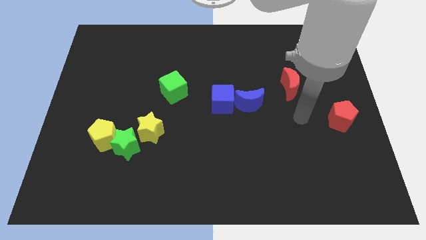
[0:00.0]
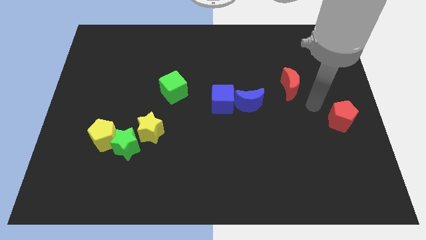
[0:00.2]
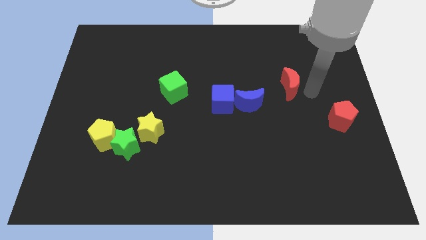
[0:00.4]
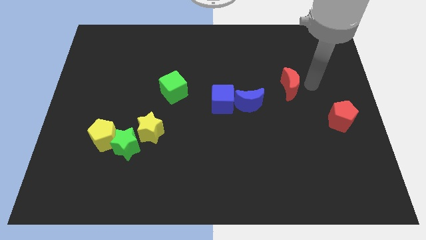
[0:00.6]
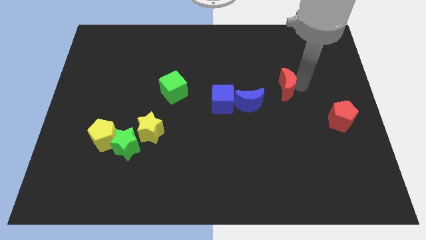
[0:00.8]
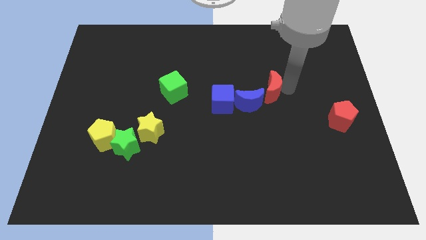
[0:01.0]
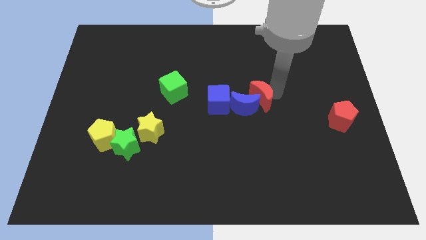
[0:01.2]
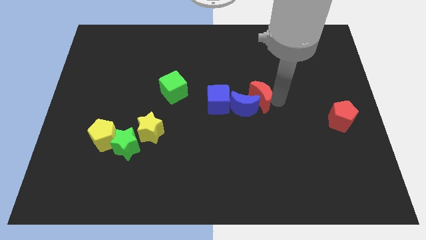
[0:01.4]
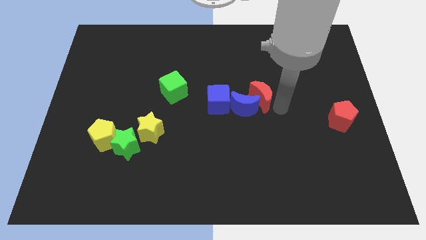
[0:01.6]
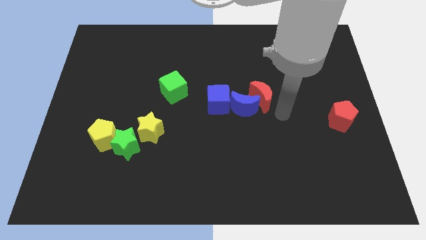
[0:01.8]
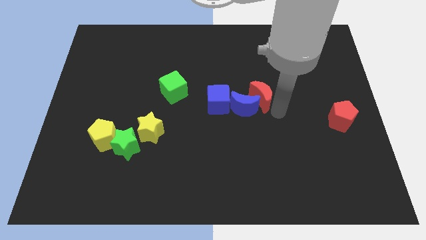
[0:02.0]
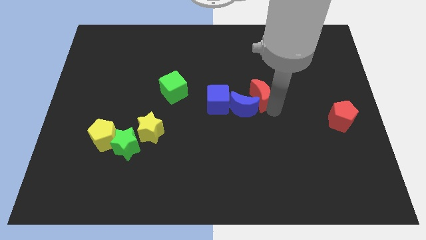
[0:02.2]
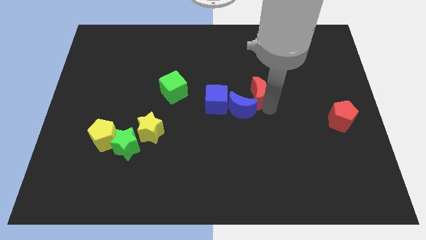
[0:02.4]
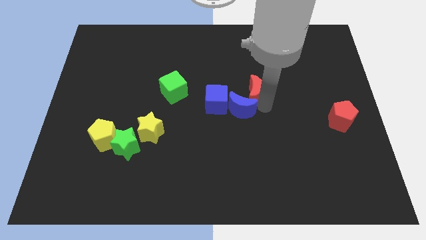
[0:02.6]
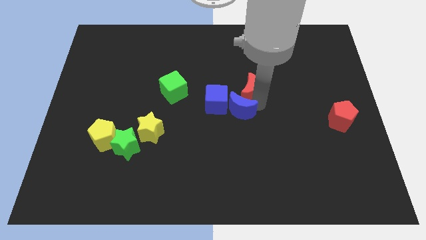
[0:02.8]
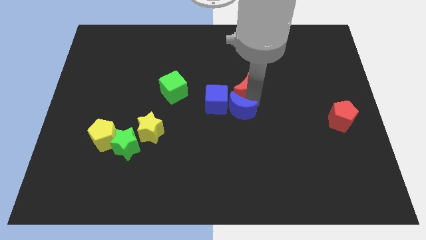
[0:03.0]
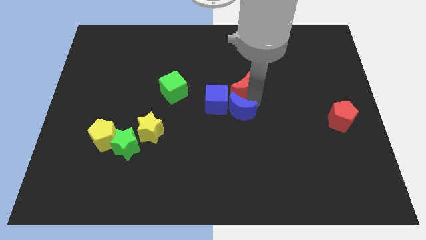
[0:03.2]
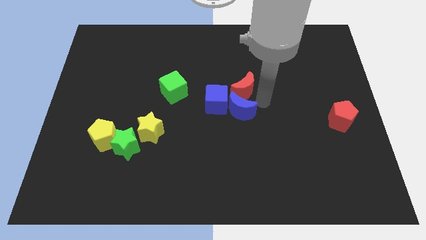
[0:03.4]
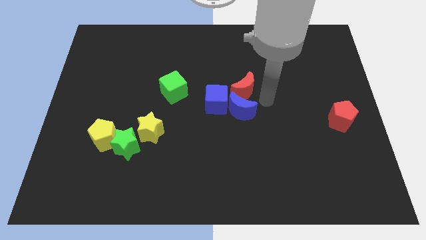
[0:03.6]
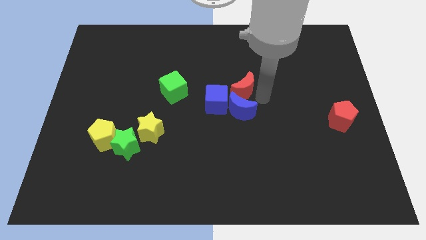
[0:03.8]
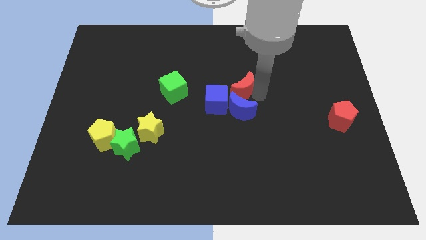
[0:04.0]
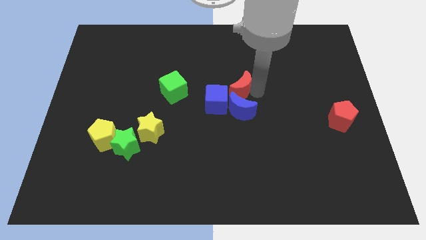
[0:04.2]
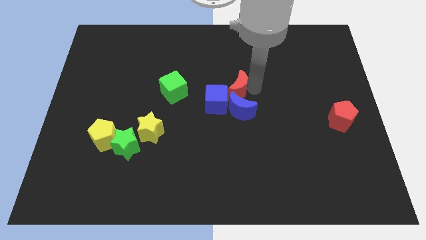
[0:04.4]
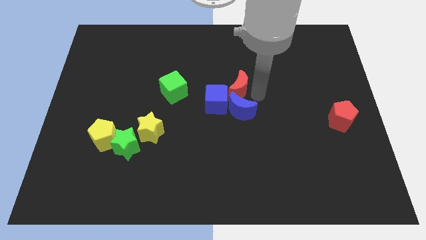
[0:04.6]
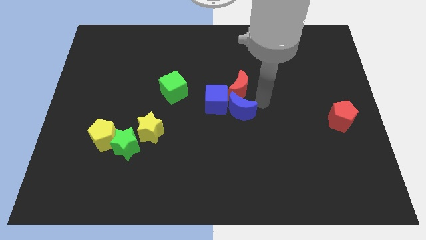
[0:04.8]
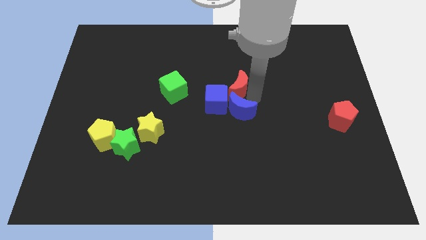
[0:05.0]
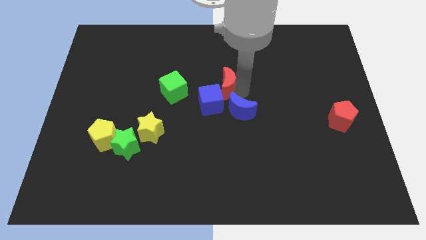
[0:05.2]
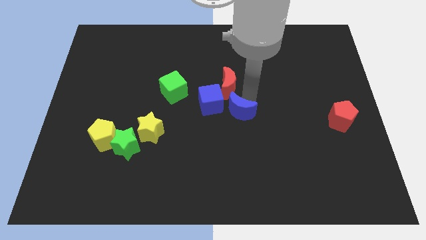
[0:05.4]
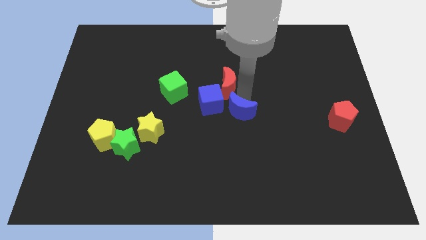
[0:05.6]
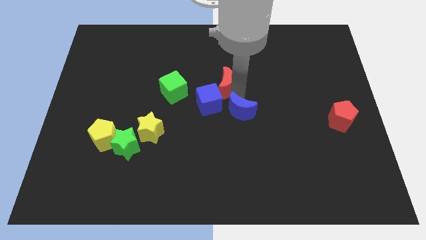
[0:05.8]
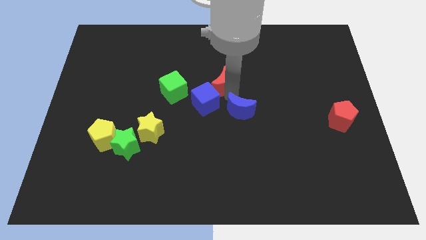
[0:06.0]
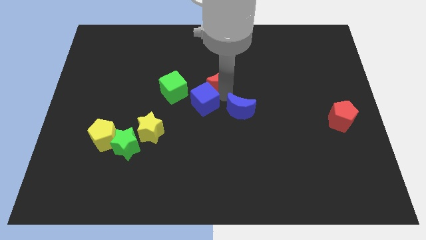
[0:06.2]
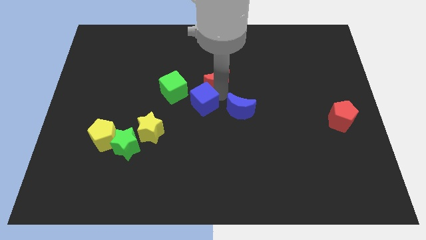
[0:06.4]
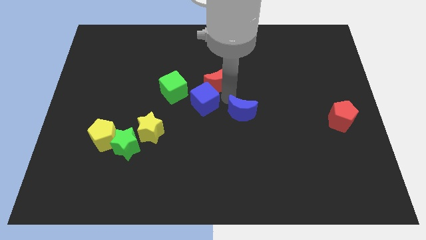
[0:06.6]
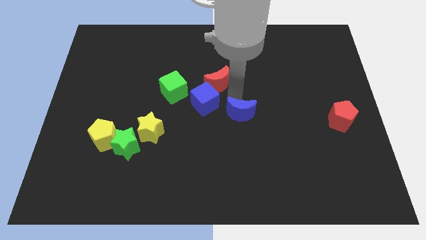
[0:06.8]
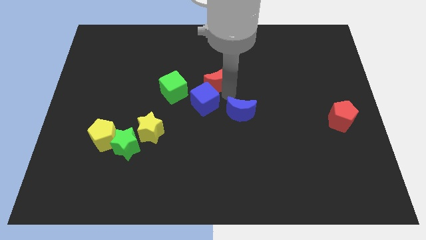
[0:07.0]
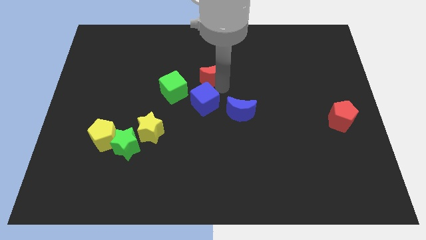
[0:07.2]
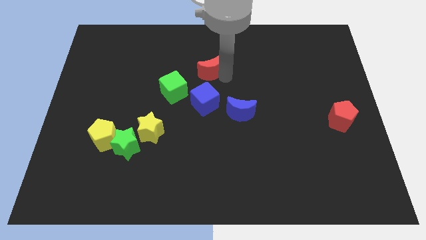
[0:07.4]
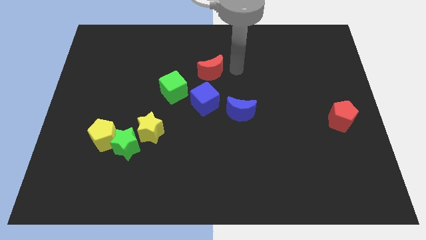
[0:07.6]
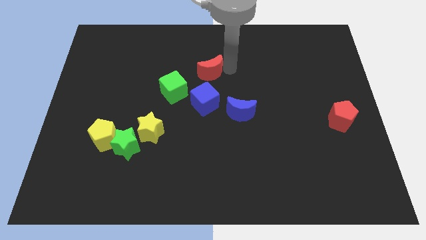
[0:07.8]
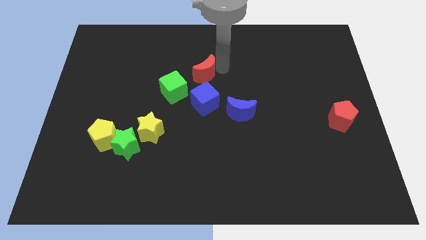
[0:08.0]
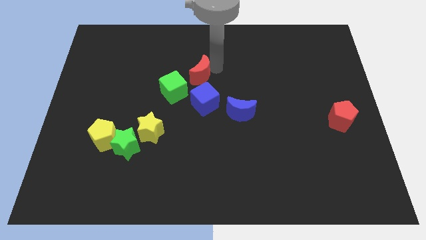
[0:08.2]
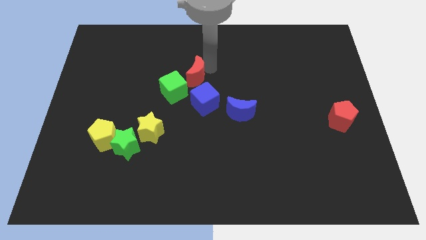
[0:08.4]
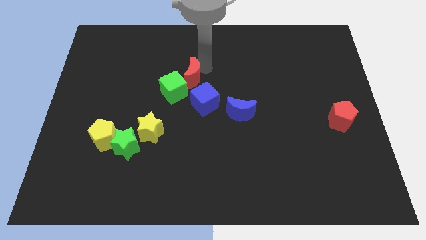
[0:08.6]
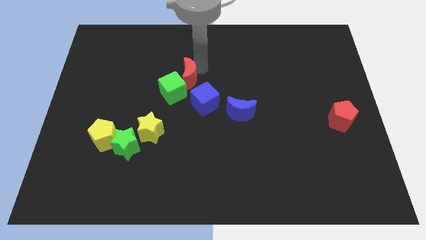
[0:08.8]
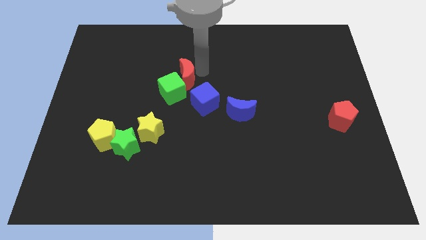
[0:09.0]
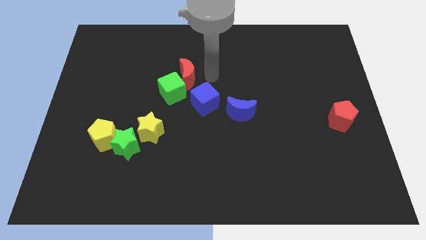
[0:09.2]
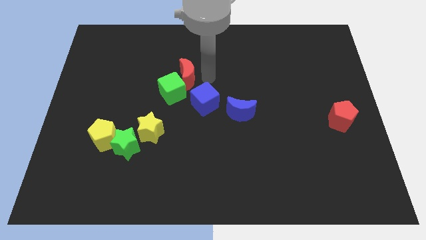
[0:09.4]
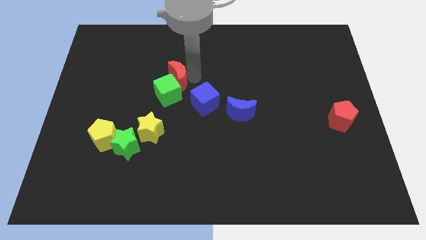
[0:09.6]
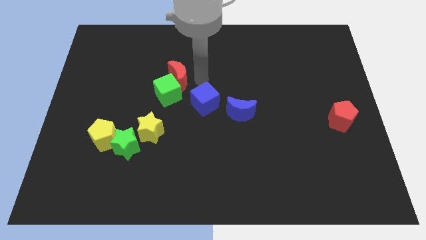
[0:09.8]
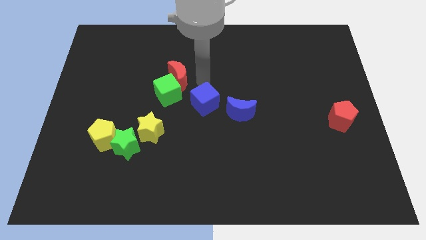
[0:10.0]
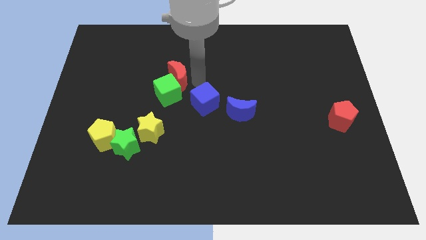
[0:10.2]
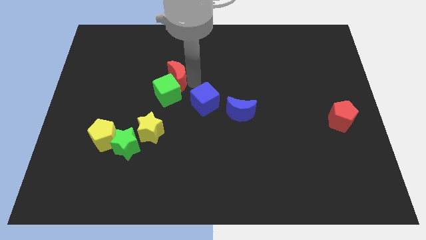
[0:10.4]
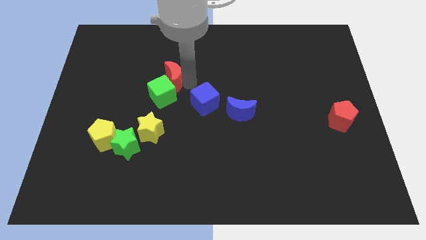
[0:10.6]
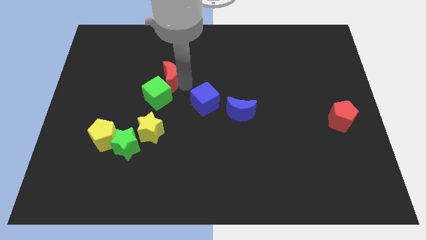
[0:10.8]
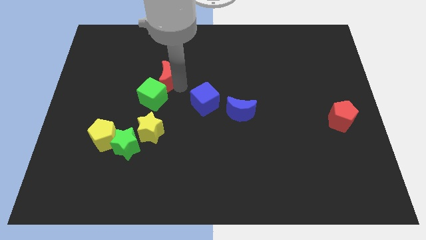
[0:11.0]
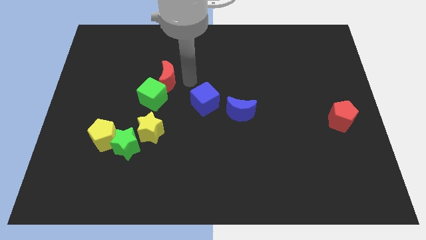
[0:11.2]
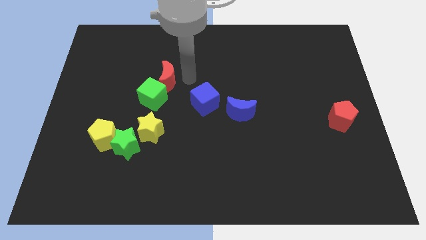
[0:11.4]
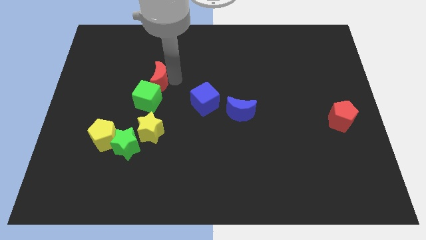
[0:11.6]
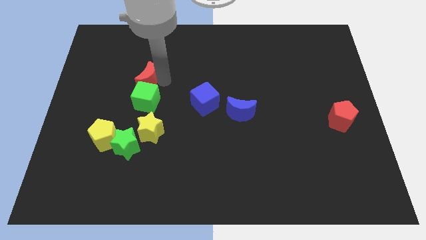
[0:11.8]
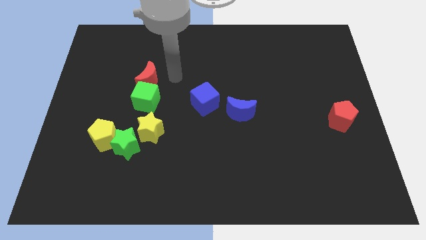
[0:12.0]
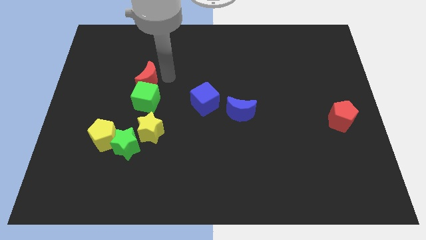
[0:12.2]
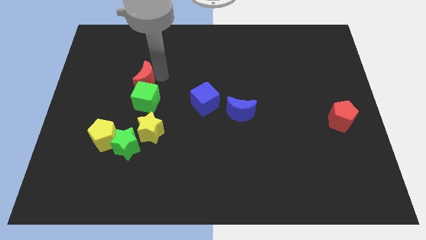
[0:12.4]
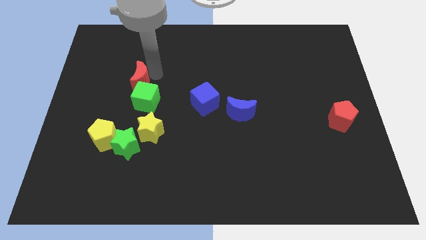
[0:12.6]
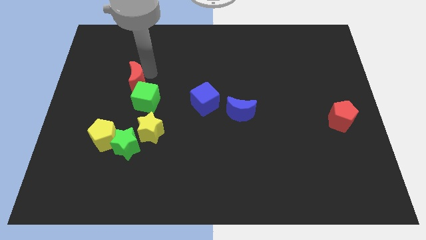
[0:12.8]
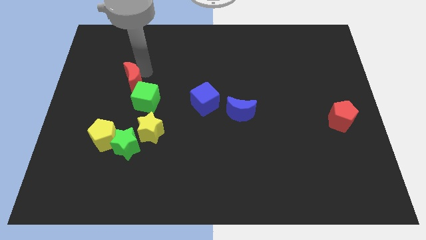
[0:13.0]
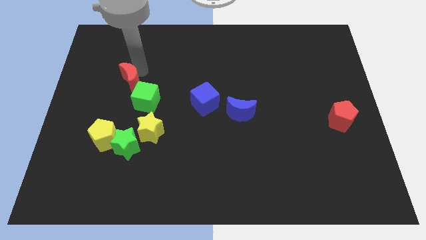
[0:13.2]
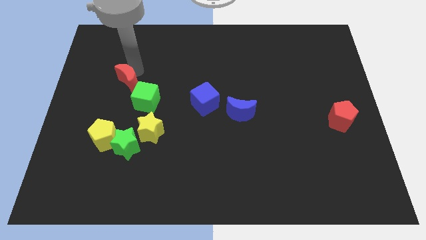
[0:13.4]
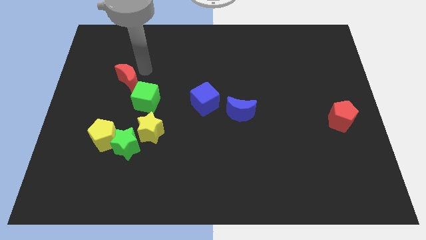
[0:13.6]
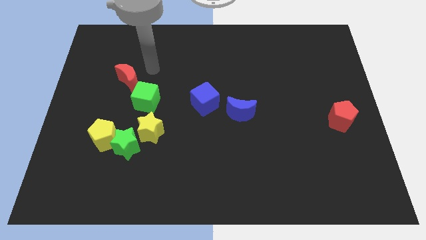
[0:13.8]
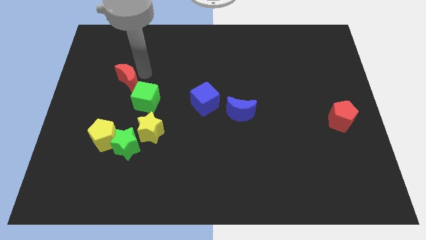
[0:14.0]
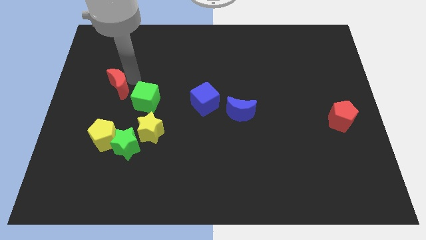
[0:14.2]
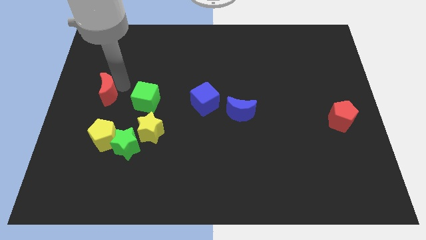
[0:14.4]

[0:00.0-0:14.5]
slide the red moon to the center left
